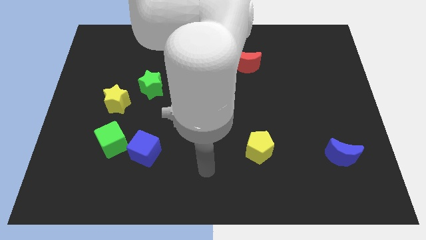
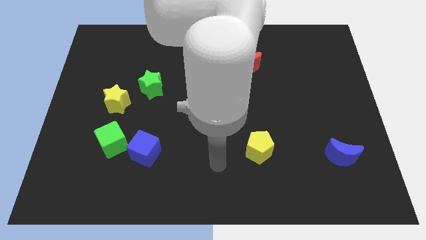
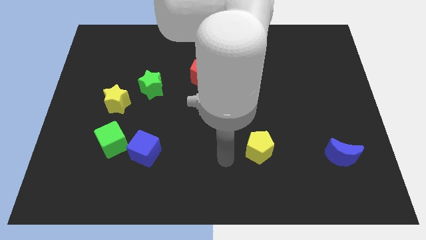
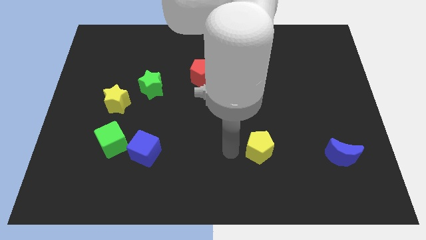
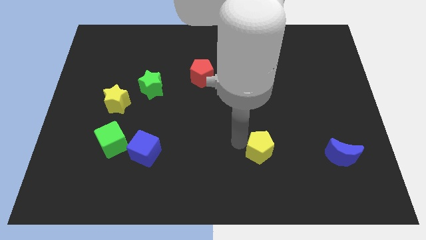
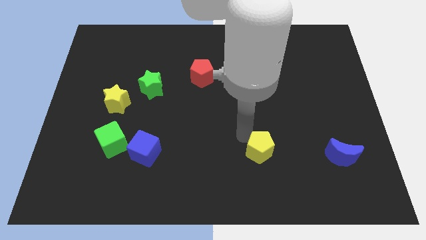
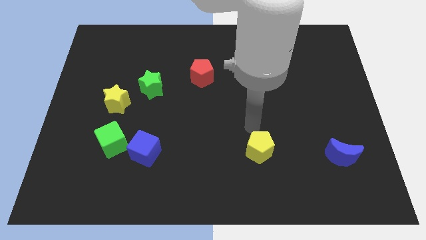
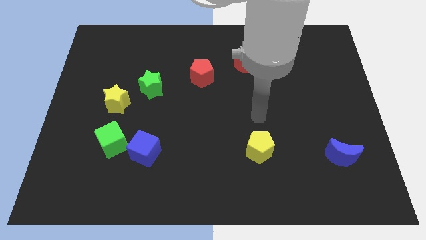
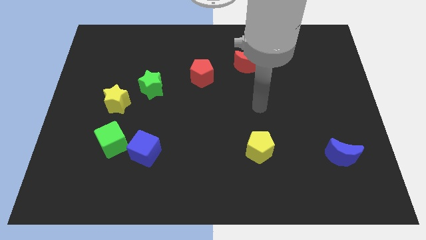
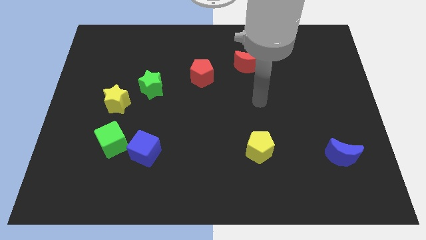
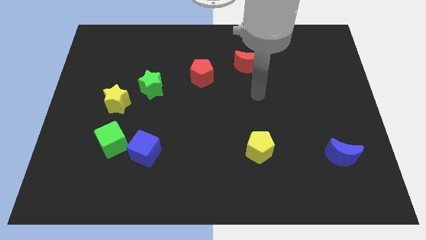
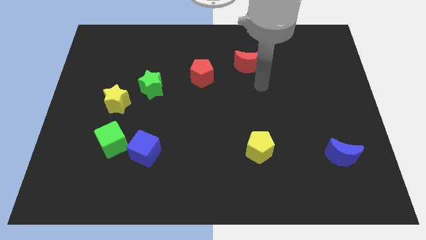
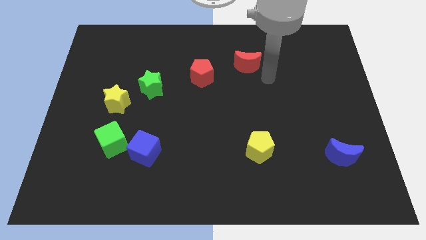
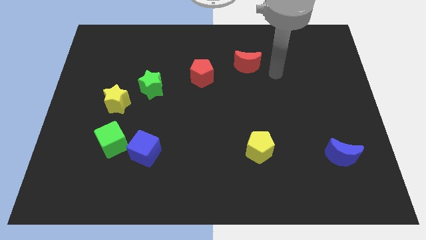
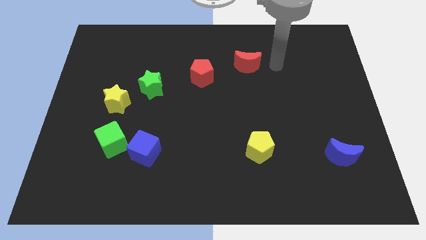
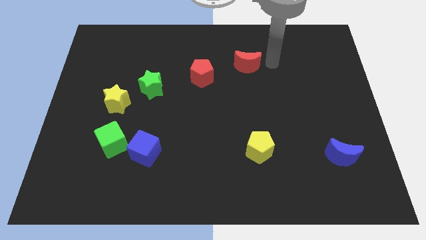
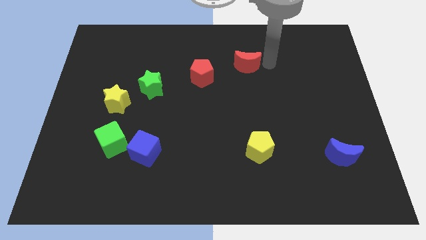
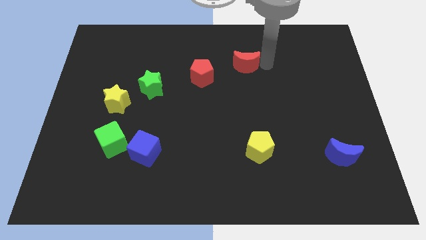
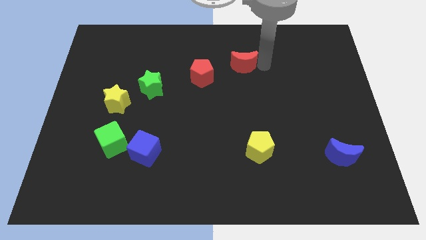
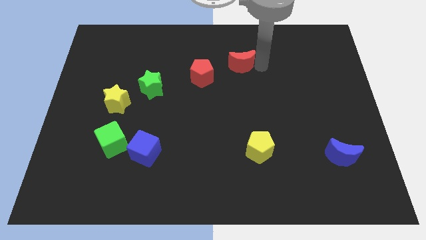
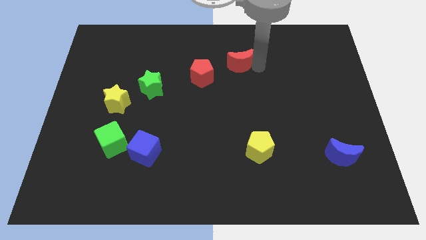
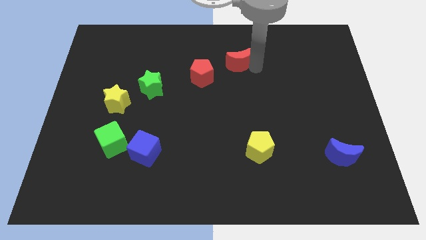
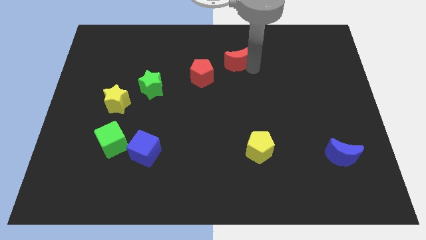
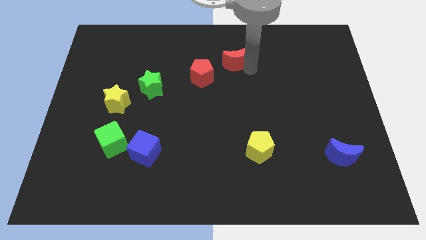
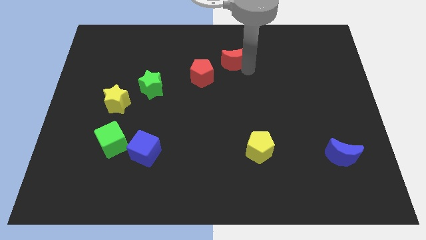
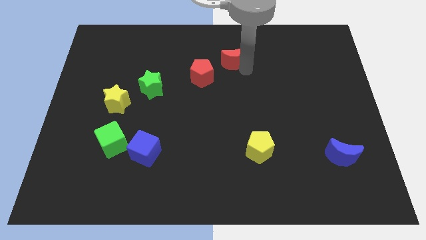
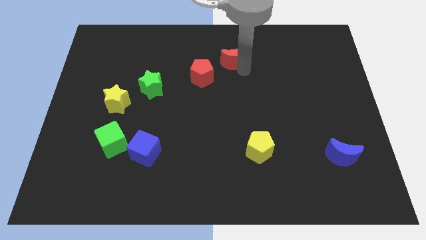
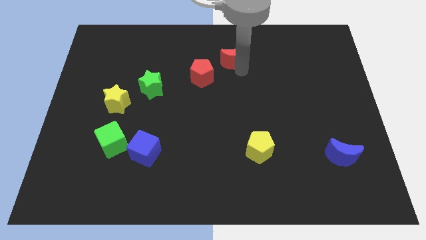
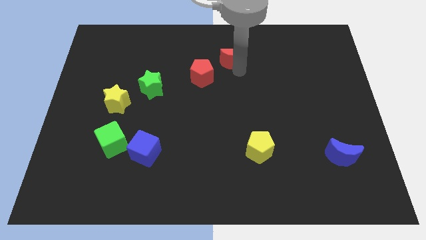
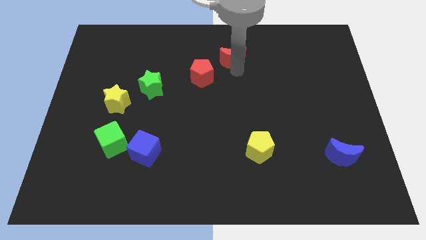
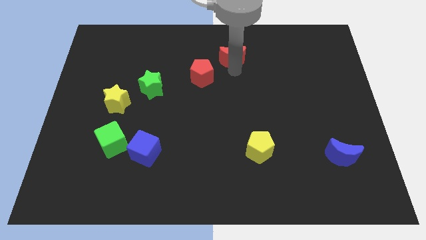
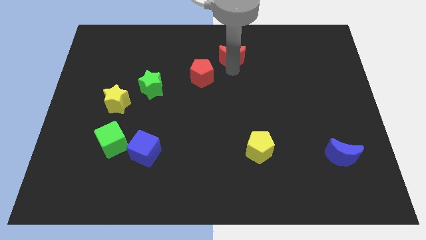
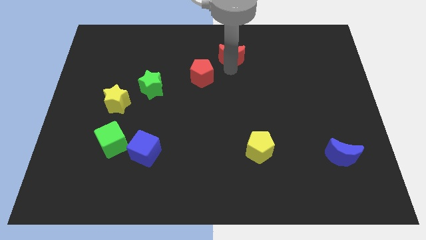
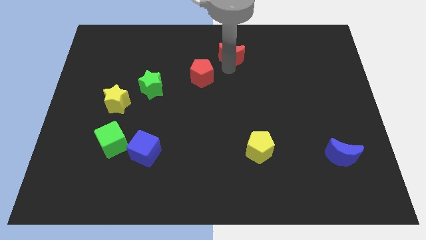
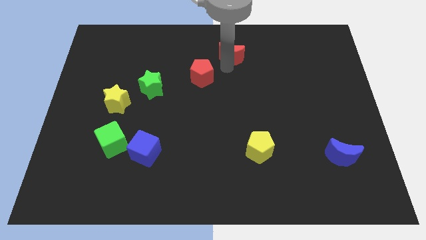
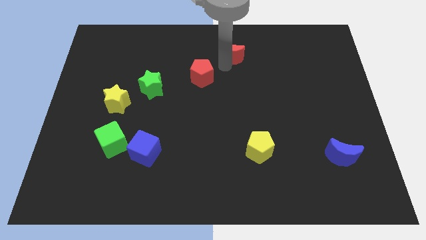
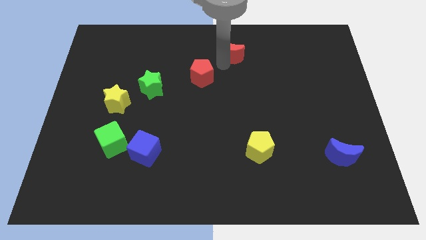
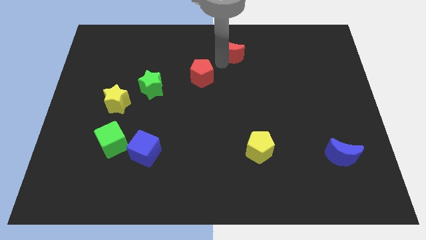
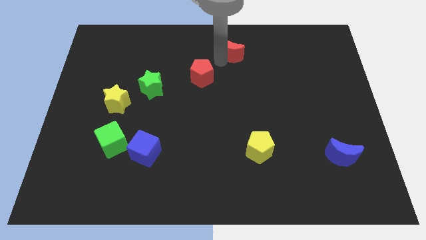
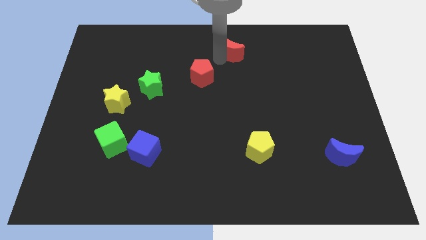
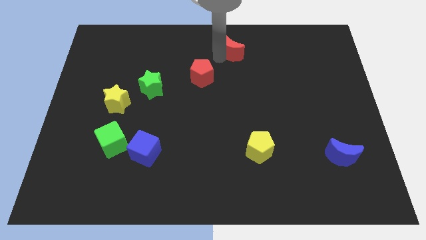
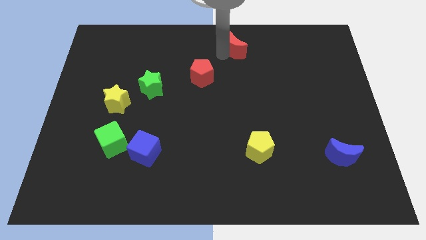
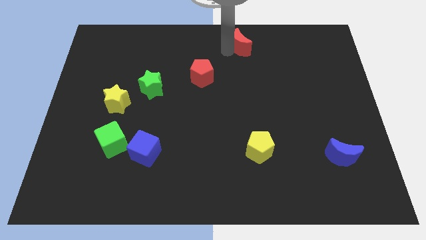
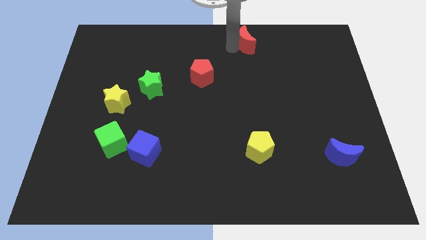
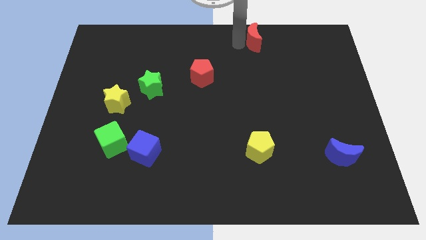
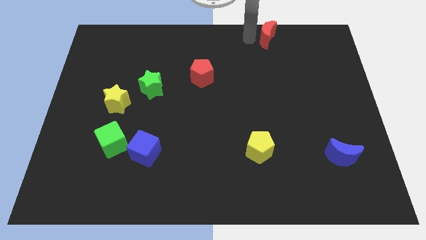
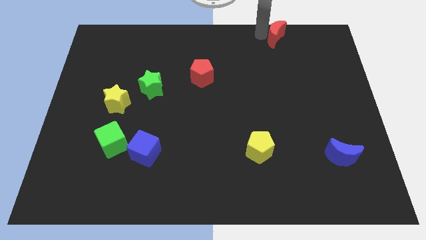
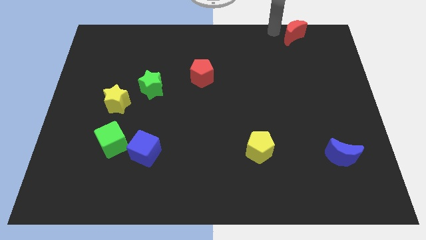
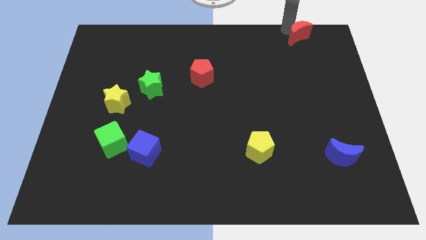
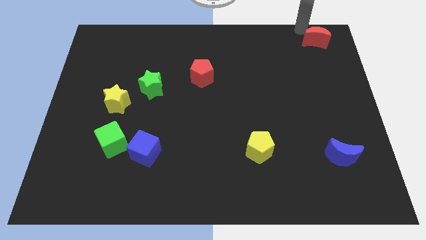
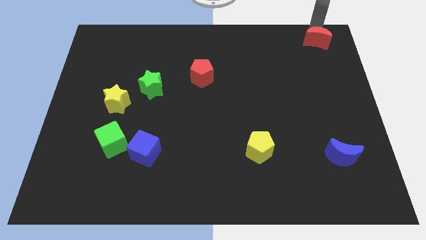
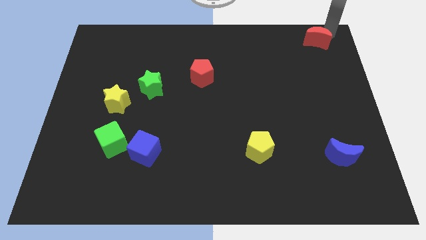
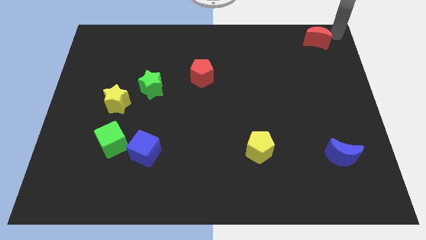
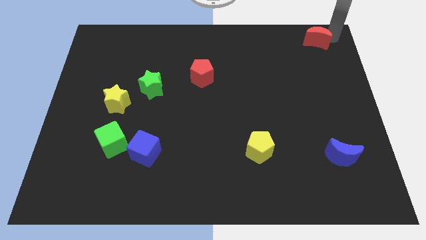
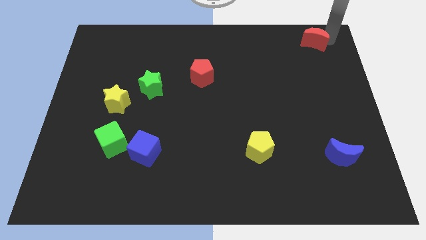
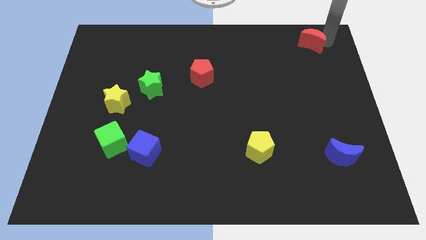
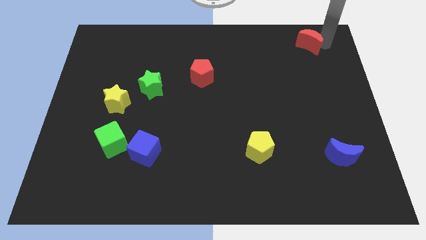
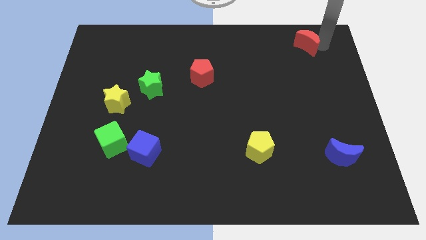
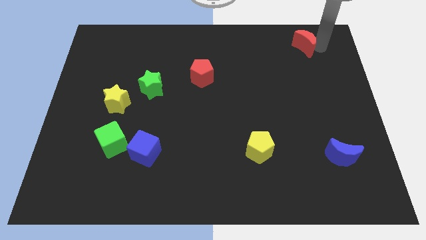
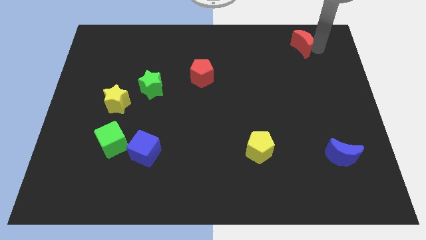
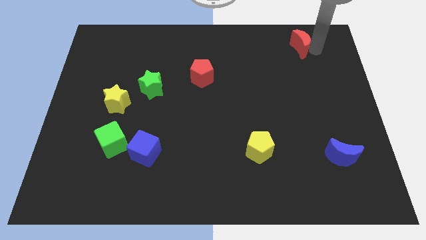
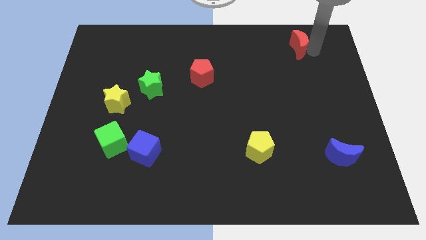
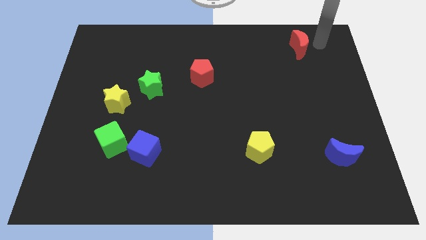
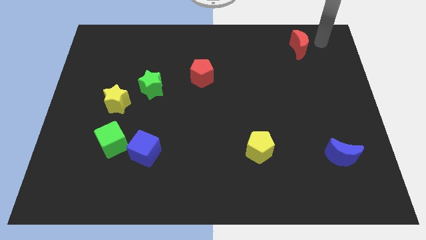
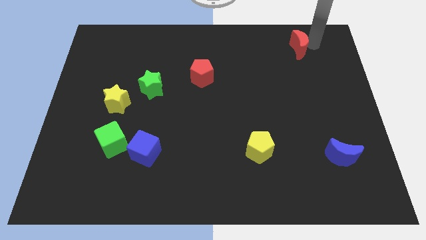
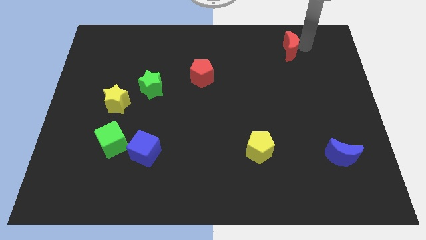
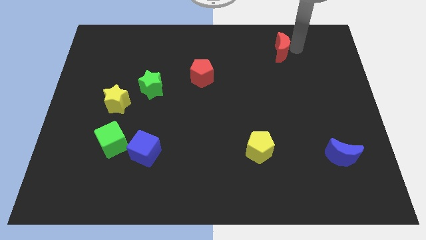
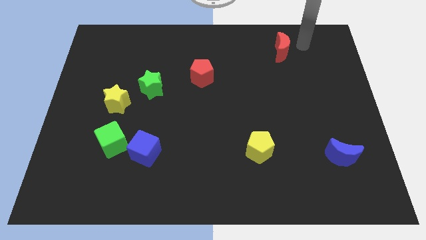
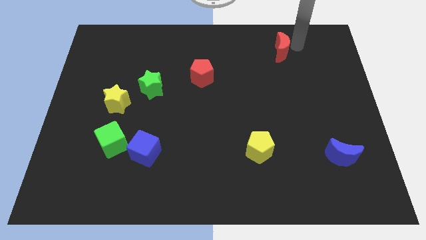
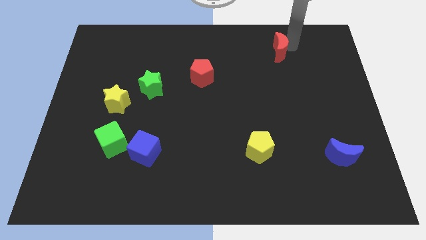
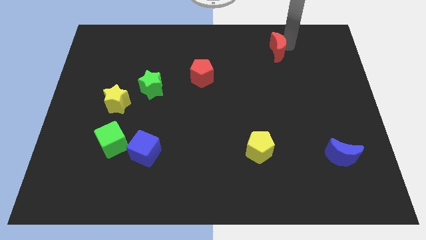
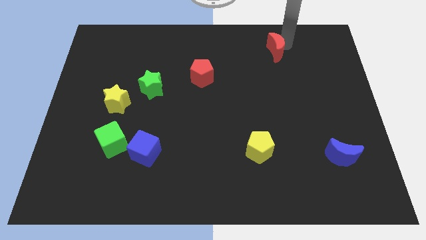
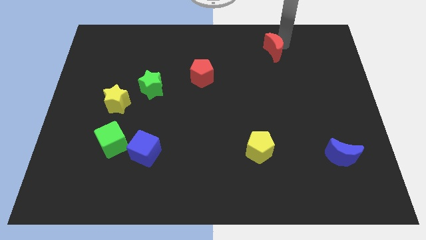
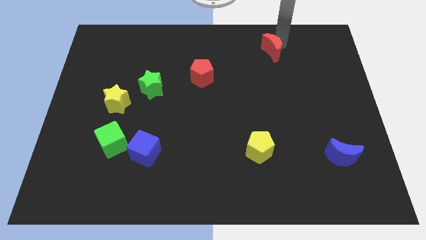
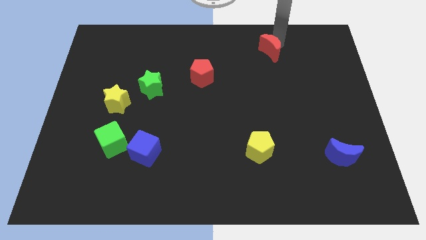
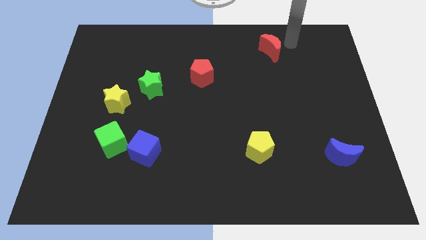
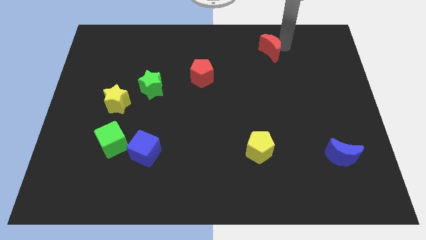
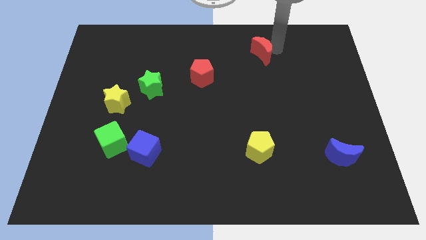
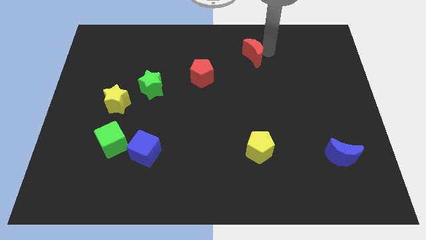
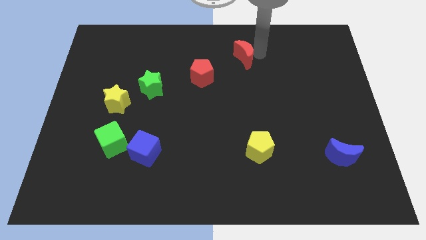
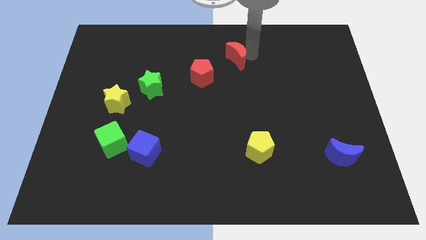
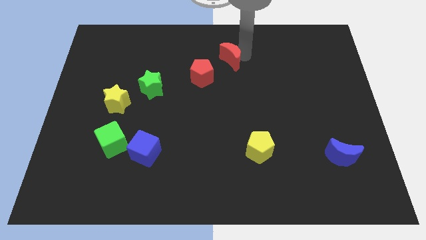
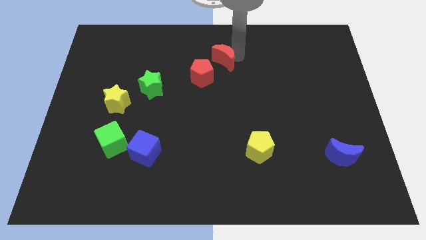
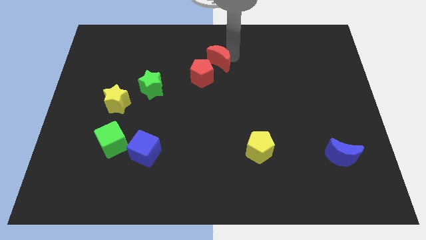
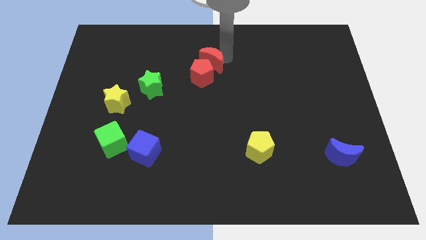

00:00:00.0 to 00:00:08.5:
put the red moon towards the red pentagon
